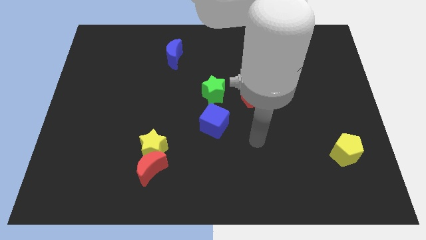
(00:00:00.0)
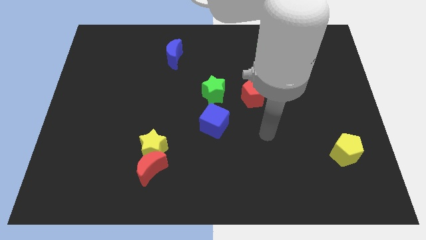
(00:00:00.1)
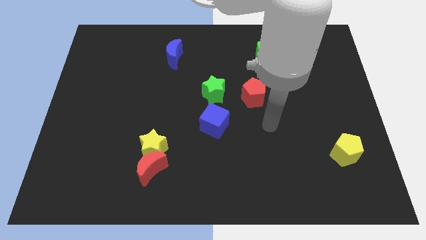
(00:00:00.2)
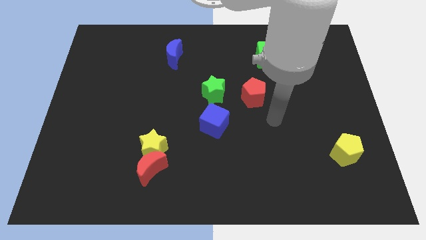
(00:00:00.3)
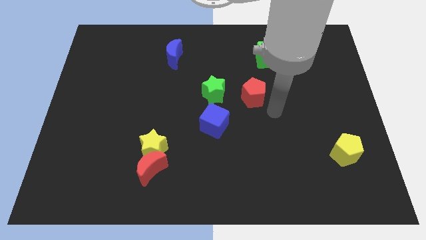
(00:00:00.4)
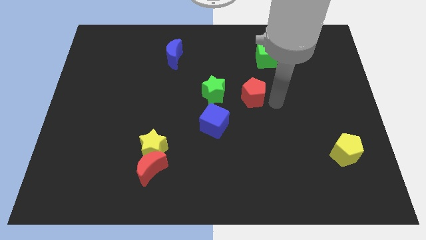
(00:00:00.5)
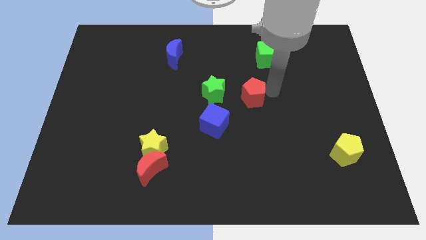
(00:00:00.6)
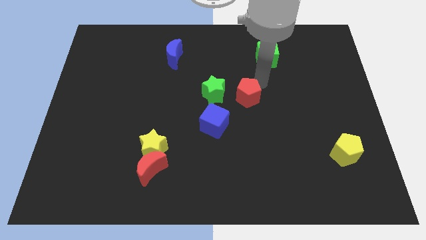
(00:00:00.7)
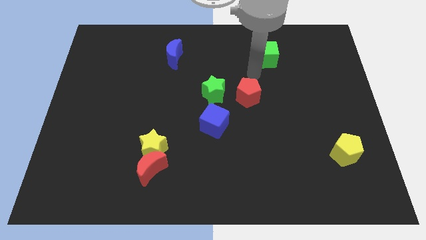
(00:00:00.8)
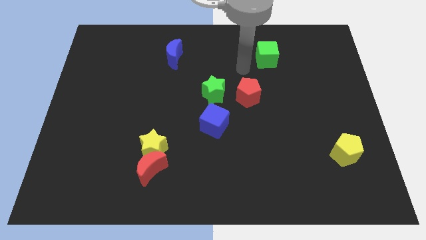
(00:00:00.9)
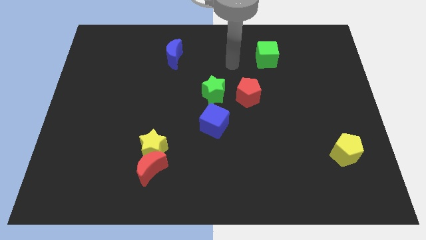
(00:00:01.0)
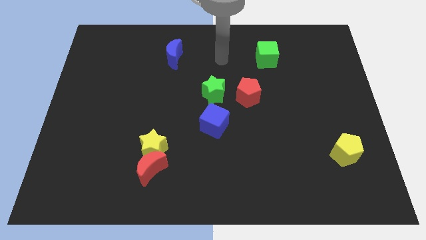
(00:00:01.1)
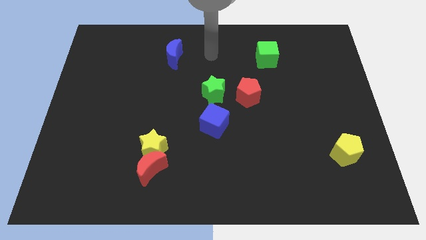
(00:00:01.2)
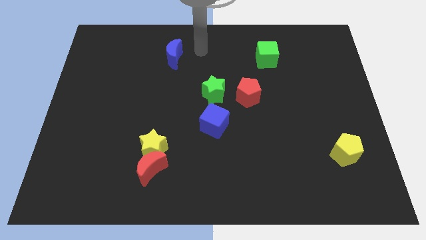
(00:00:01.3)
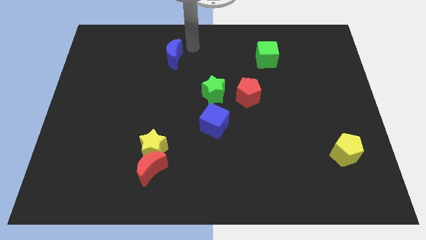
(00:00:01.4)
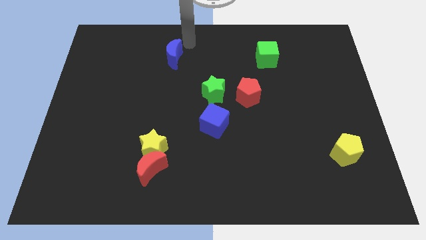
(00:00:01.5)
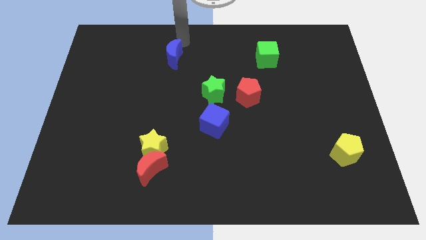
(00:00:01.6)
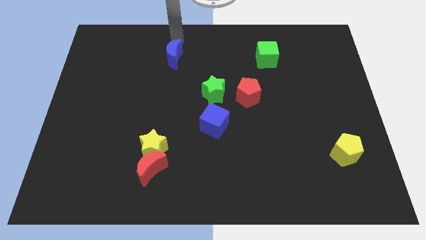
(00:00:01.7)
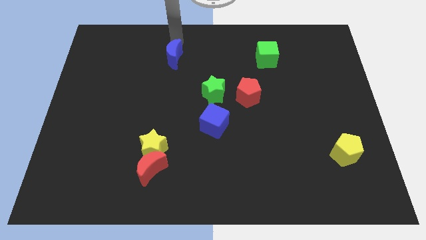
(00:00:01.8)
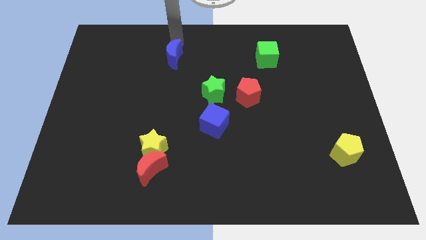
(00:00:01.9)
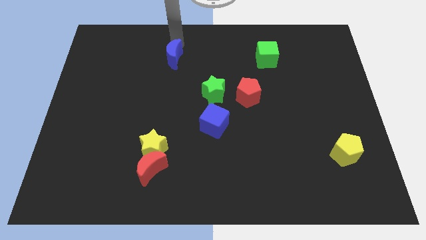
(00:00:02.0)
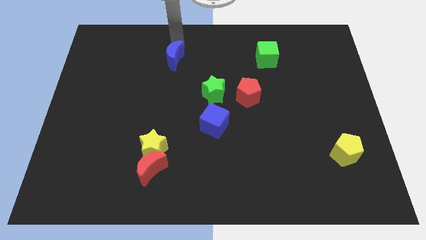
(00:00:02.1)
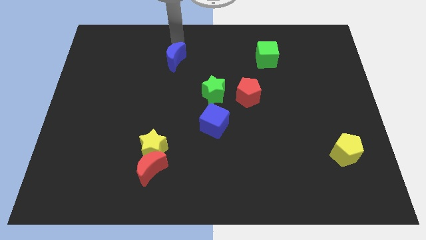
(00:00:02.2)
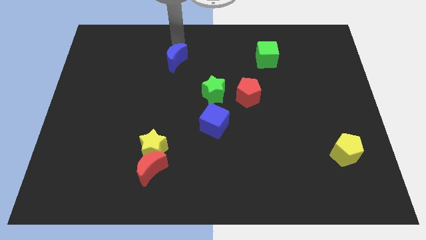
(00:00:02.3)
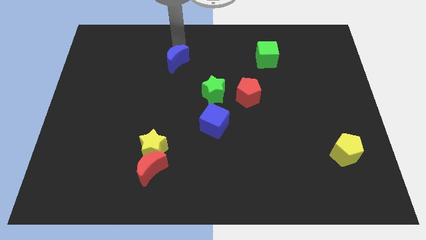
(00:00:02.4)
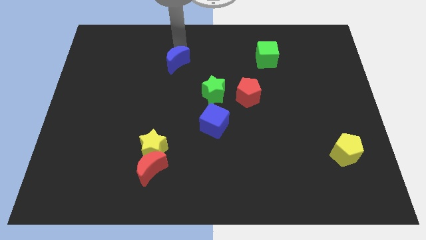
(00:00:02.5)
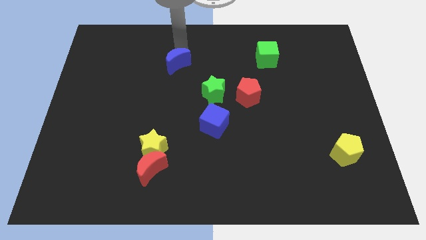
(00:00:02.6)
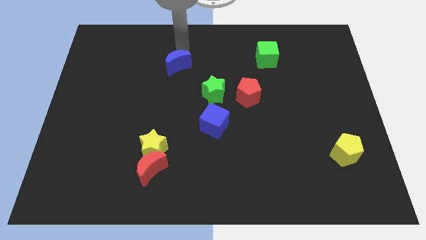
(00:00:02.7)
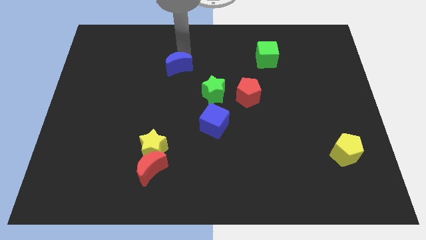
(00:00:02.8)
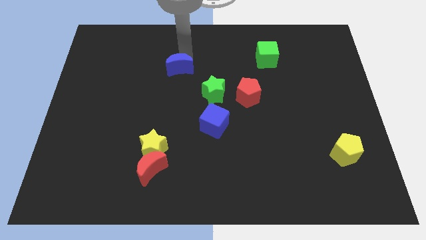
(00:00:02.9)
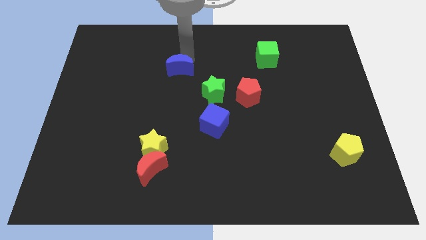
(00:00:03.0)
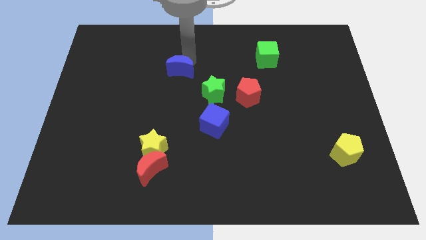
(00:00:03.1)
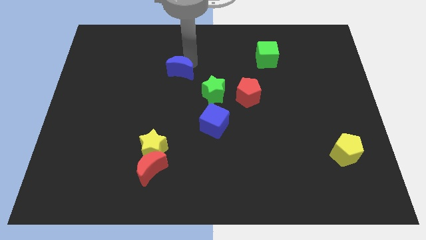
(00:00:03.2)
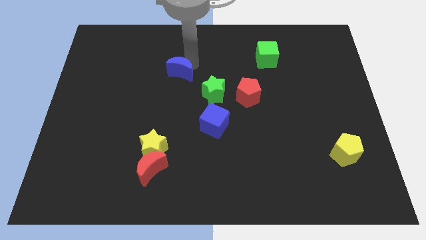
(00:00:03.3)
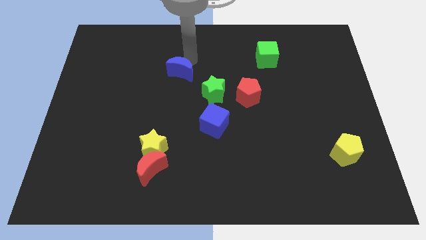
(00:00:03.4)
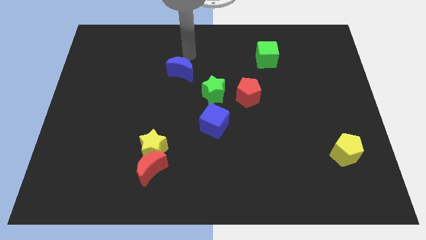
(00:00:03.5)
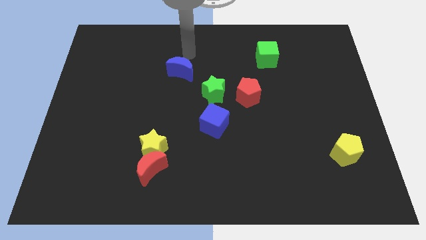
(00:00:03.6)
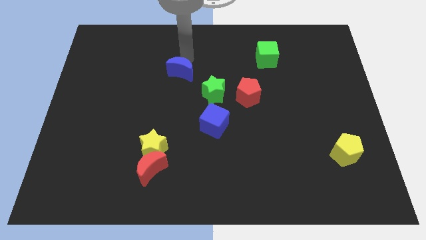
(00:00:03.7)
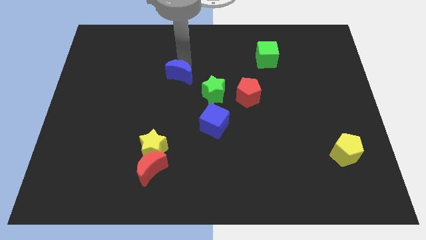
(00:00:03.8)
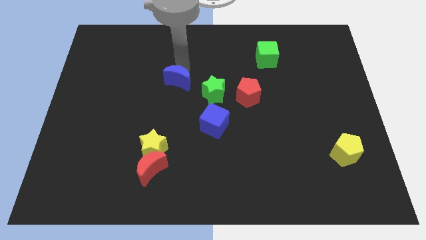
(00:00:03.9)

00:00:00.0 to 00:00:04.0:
slightly slide the blue moon down

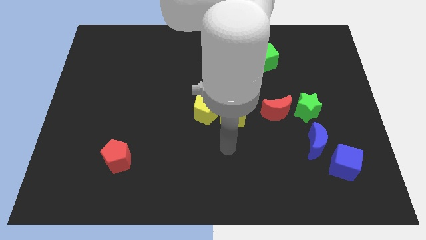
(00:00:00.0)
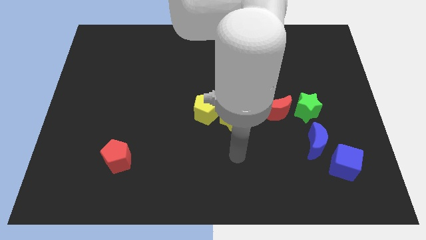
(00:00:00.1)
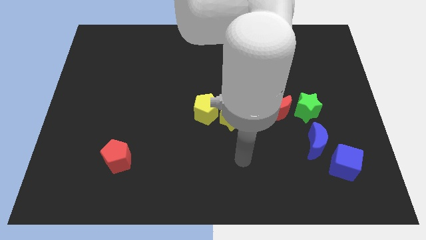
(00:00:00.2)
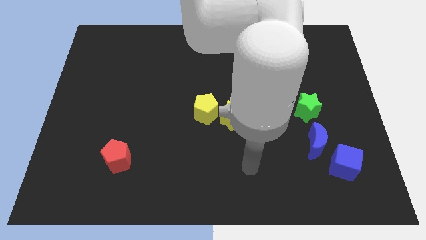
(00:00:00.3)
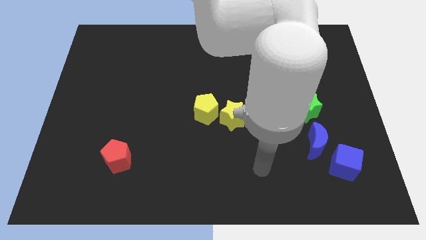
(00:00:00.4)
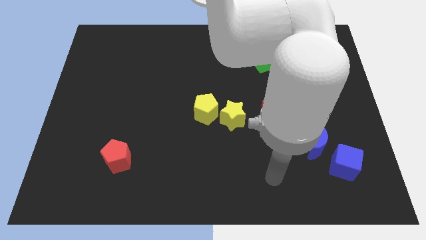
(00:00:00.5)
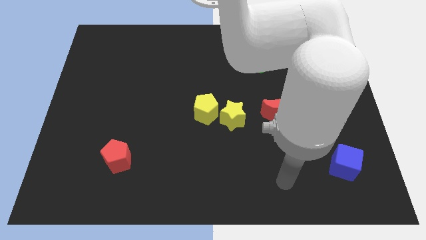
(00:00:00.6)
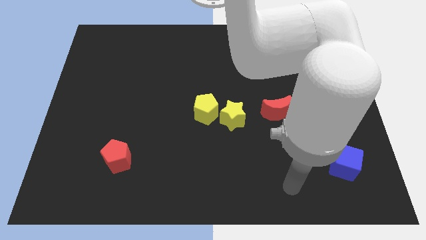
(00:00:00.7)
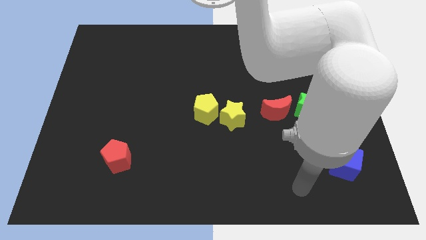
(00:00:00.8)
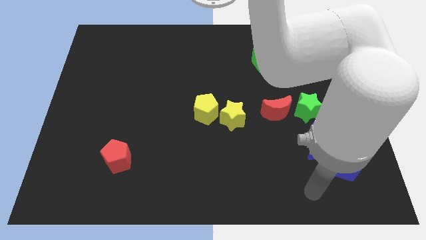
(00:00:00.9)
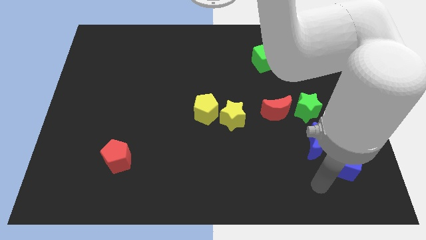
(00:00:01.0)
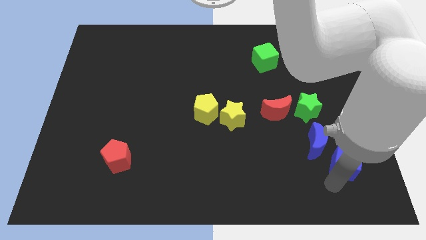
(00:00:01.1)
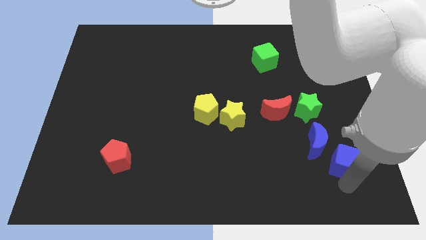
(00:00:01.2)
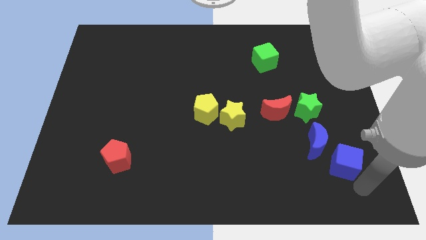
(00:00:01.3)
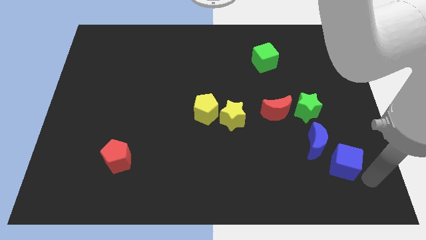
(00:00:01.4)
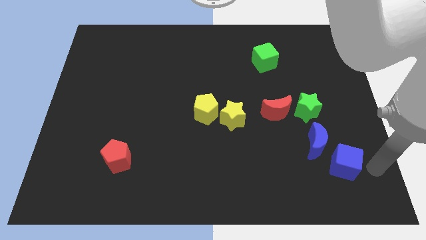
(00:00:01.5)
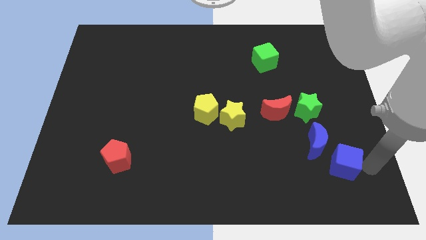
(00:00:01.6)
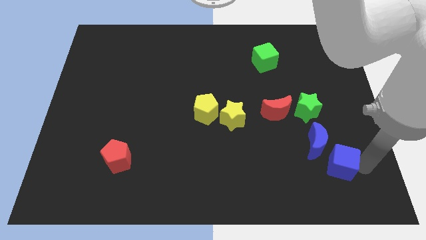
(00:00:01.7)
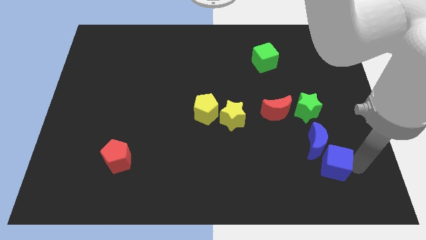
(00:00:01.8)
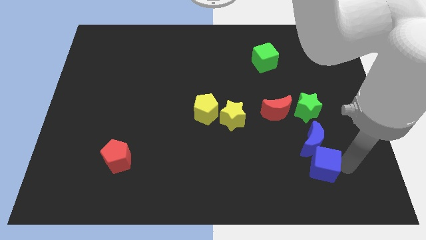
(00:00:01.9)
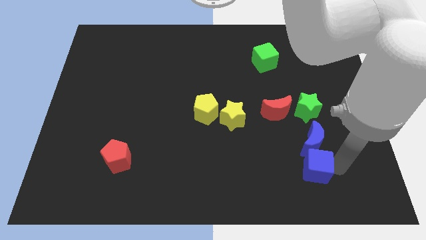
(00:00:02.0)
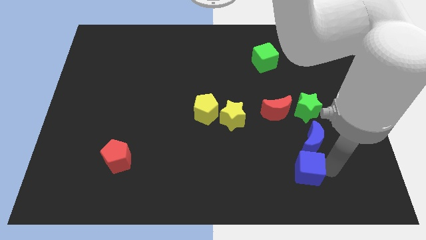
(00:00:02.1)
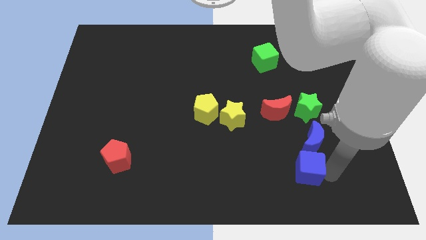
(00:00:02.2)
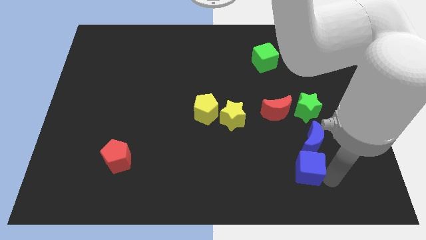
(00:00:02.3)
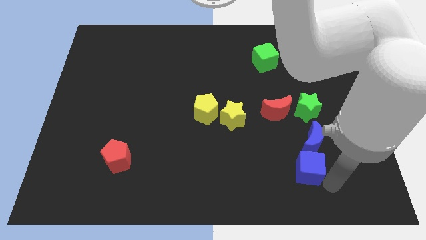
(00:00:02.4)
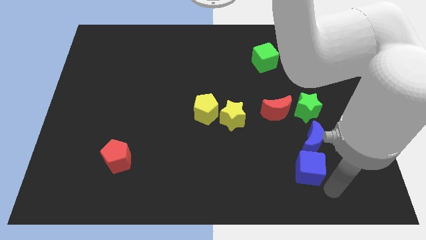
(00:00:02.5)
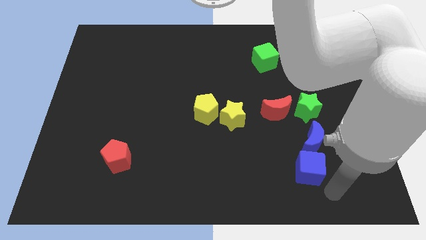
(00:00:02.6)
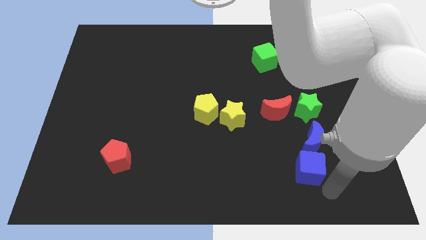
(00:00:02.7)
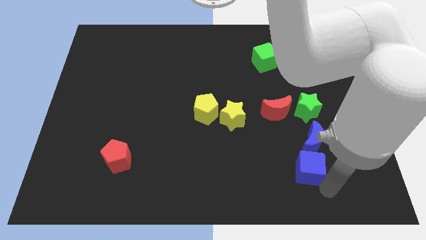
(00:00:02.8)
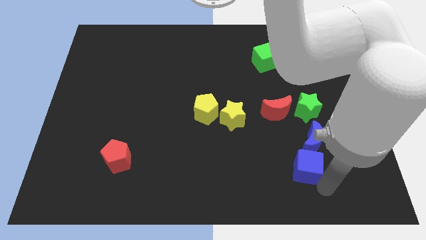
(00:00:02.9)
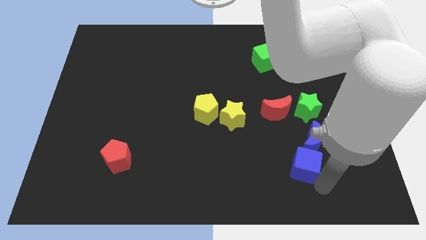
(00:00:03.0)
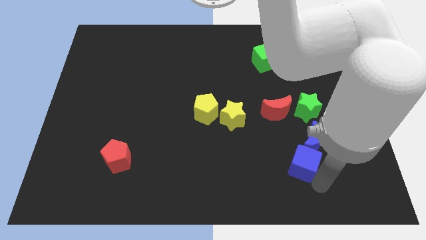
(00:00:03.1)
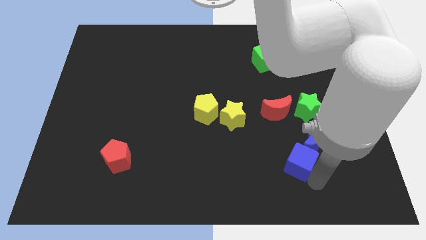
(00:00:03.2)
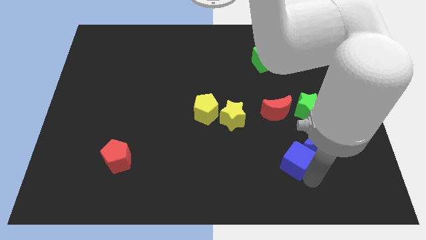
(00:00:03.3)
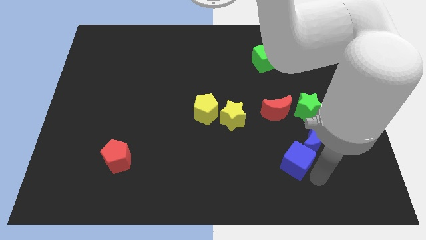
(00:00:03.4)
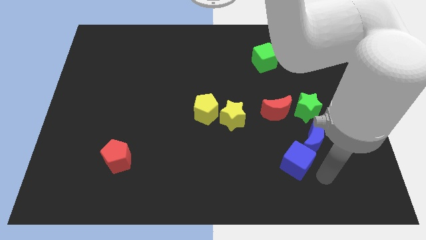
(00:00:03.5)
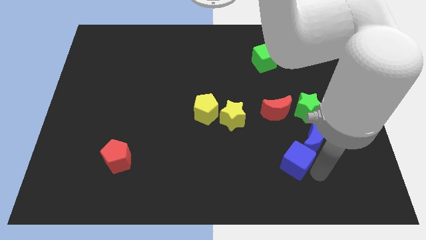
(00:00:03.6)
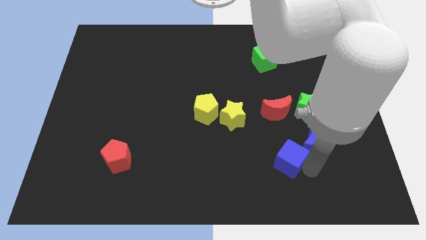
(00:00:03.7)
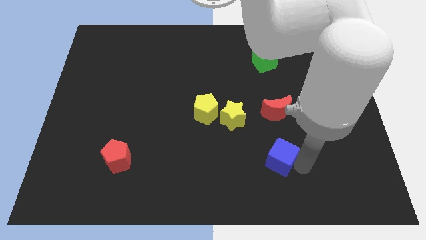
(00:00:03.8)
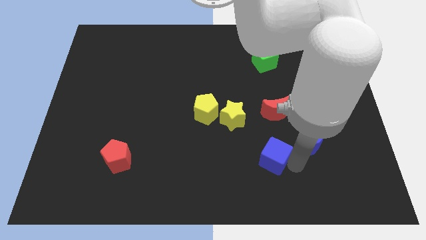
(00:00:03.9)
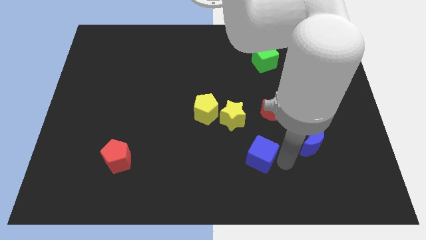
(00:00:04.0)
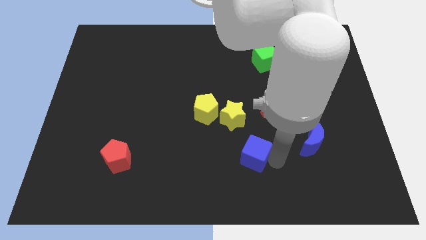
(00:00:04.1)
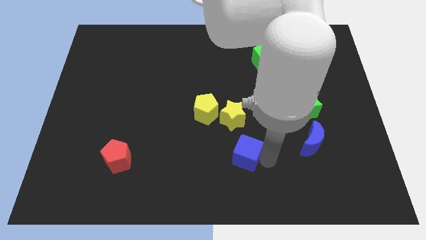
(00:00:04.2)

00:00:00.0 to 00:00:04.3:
move the blue cube to the left
